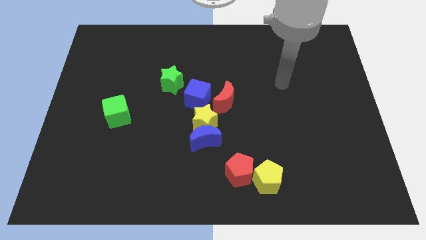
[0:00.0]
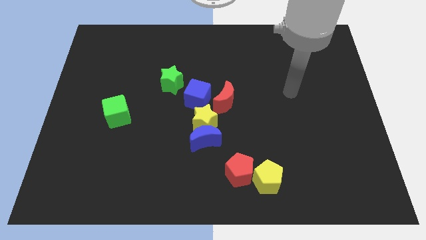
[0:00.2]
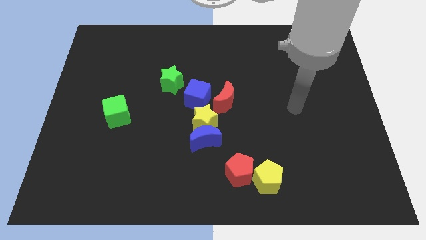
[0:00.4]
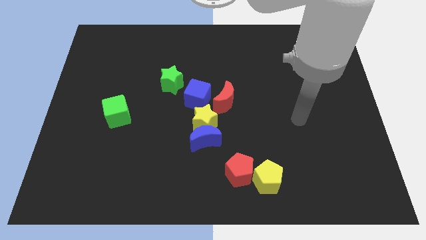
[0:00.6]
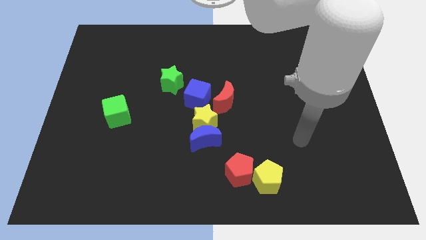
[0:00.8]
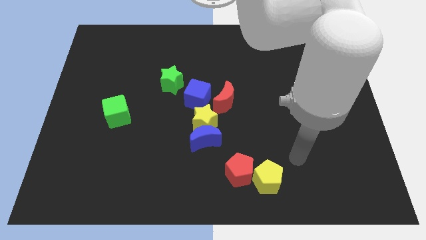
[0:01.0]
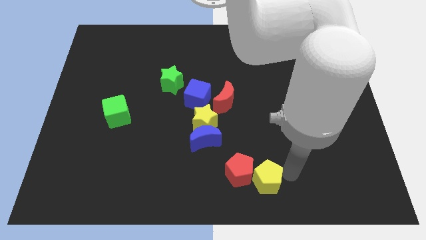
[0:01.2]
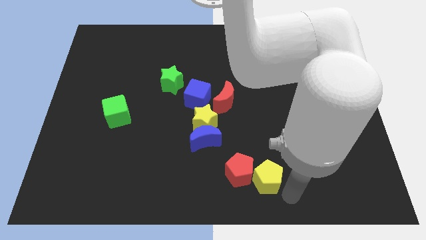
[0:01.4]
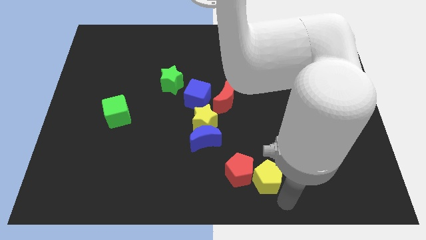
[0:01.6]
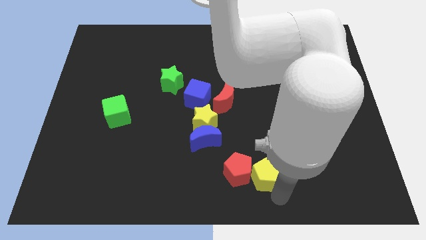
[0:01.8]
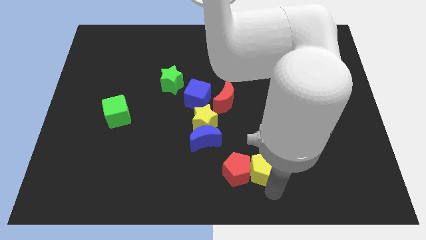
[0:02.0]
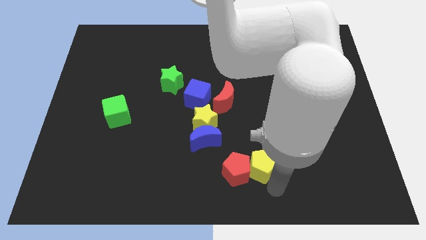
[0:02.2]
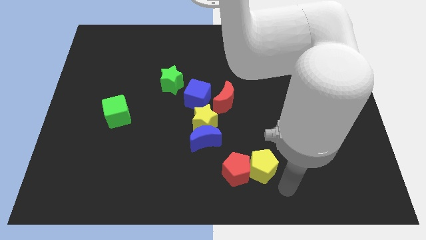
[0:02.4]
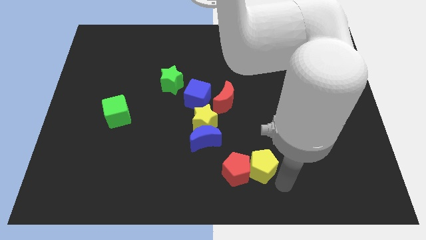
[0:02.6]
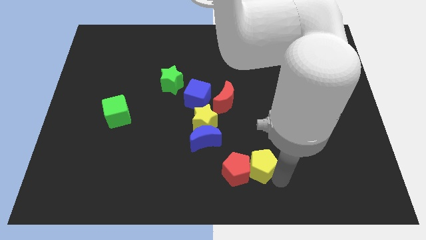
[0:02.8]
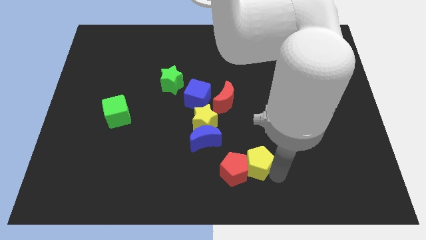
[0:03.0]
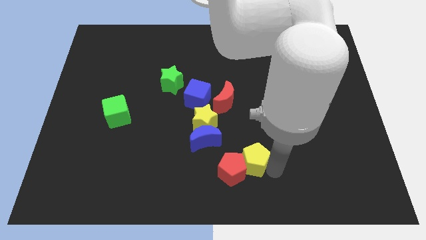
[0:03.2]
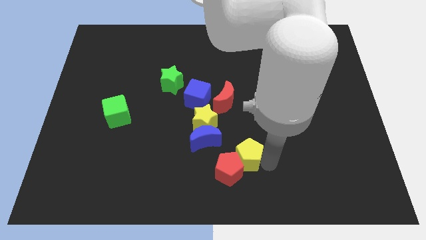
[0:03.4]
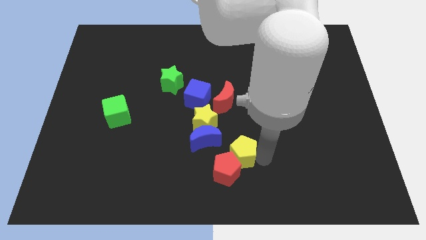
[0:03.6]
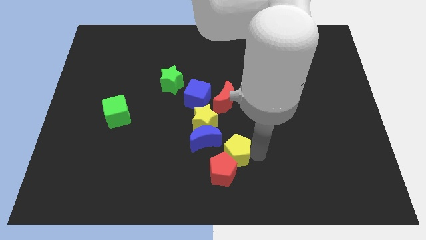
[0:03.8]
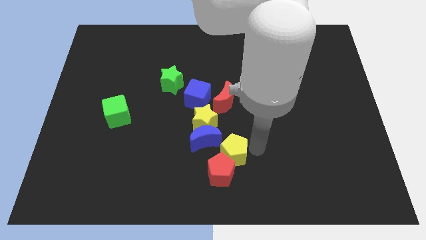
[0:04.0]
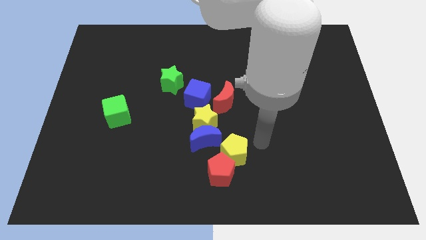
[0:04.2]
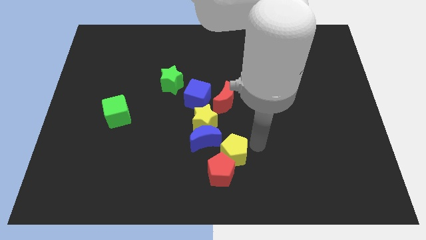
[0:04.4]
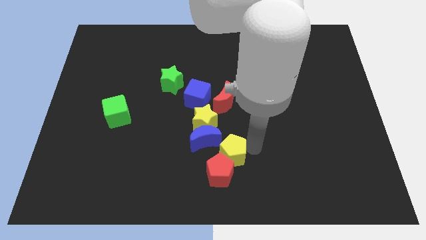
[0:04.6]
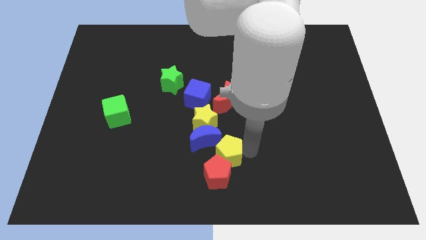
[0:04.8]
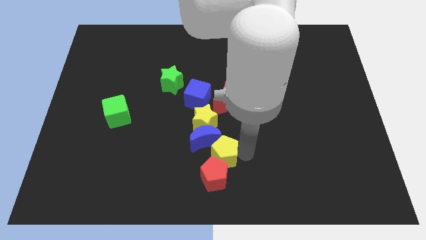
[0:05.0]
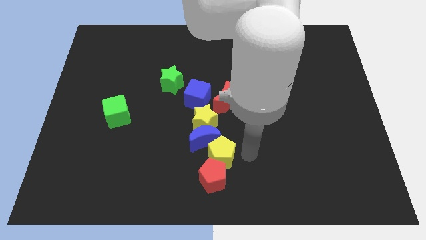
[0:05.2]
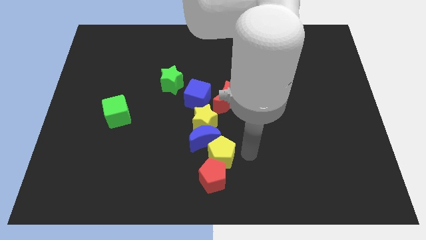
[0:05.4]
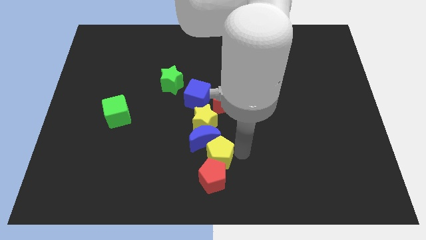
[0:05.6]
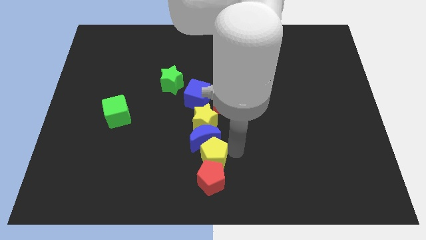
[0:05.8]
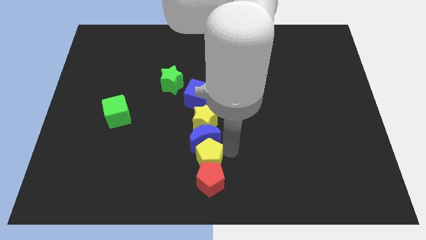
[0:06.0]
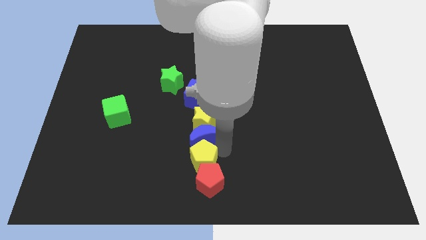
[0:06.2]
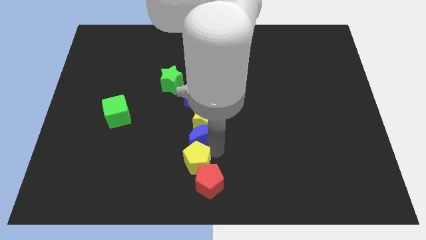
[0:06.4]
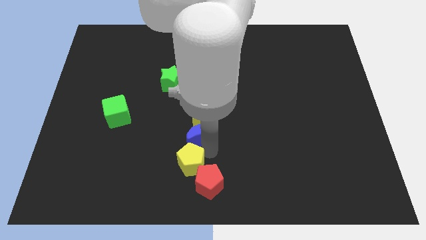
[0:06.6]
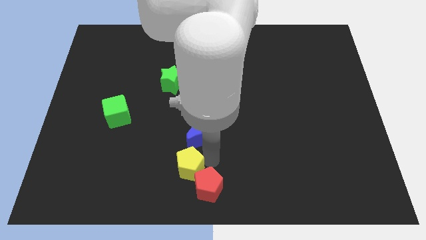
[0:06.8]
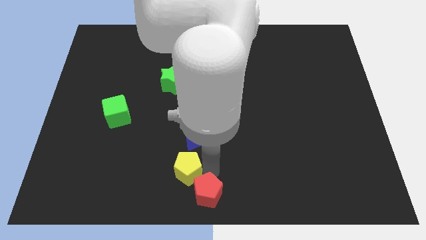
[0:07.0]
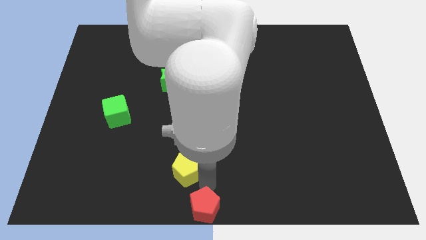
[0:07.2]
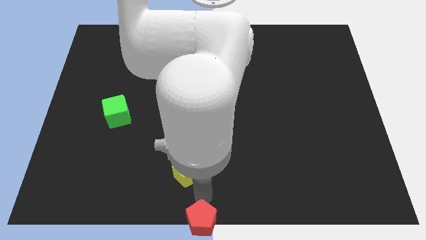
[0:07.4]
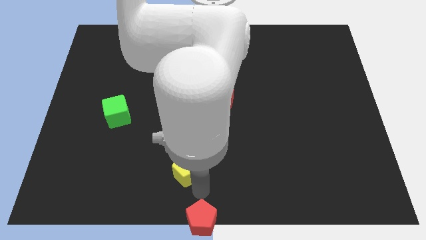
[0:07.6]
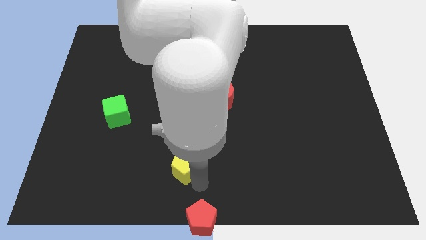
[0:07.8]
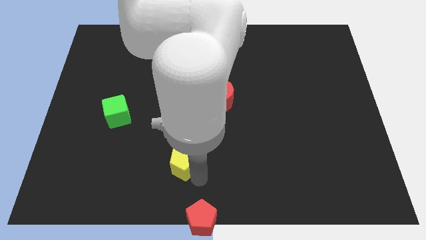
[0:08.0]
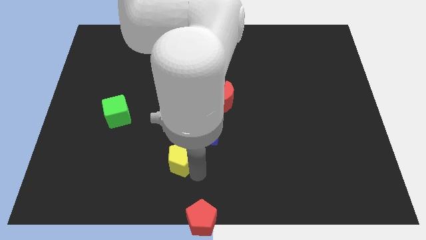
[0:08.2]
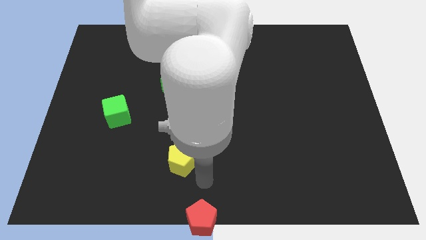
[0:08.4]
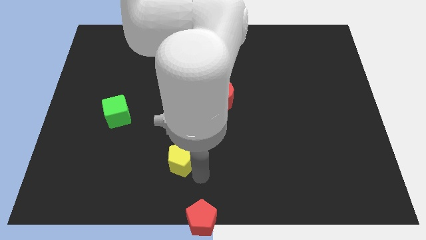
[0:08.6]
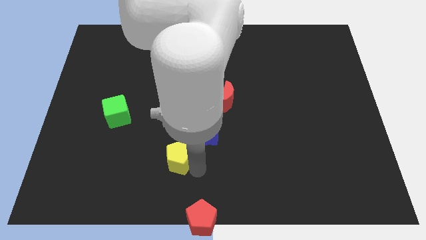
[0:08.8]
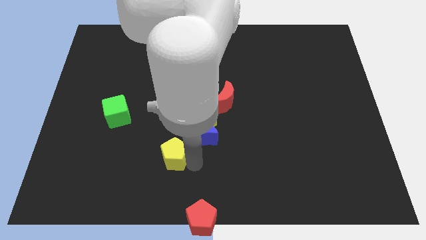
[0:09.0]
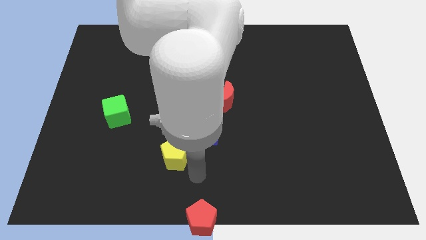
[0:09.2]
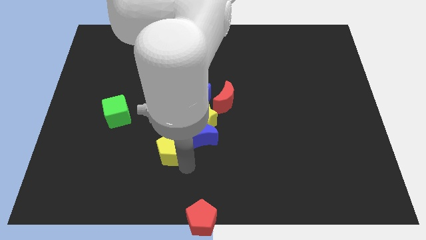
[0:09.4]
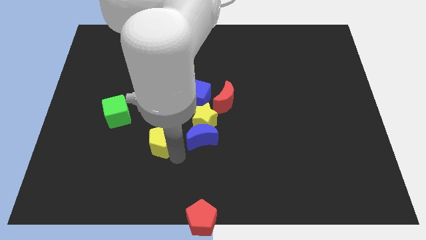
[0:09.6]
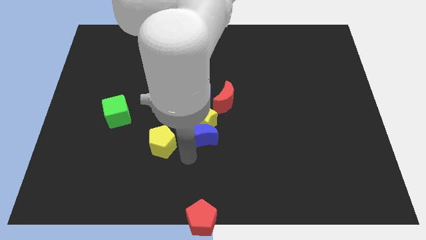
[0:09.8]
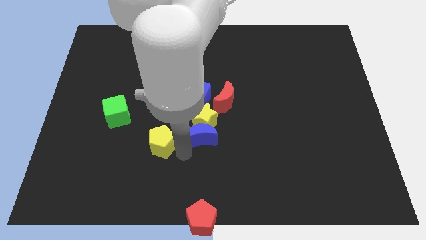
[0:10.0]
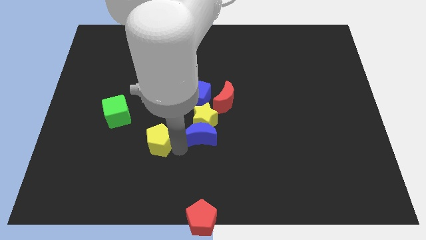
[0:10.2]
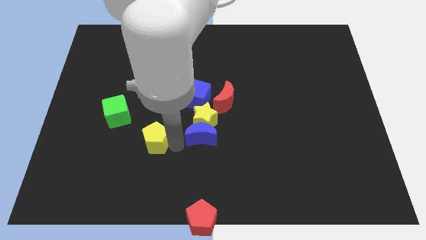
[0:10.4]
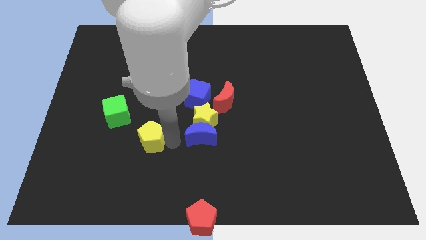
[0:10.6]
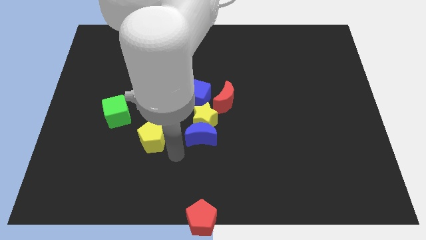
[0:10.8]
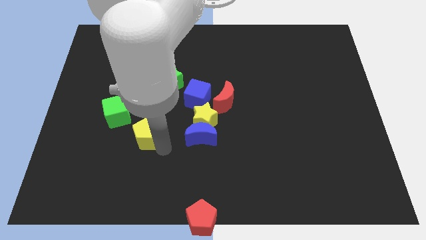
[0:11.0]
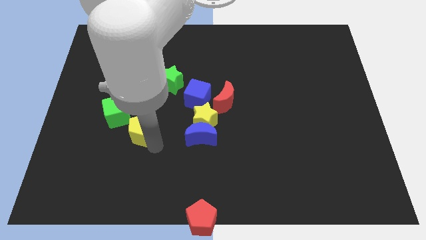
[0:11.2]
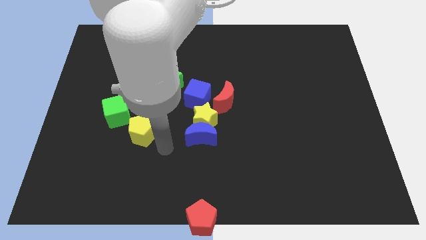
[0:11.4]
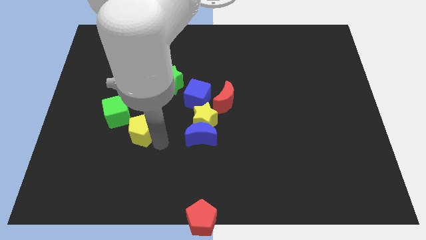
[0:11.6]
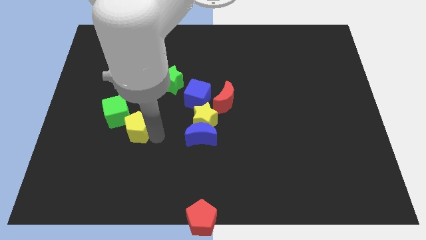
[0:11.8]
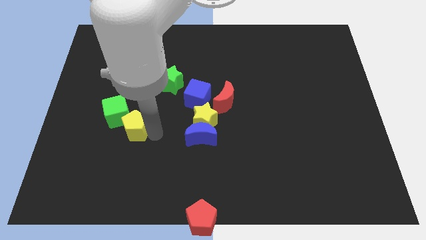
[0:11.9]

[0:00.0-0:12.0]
put the yellow pentagon towards the green cube

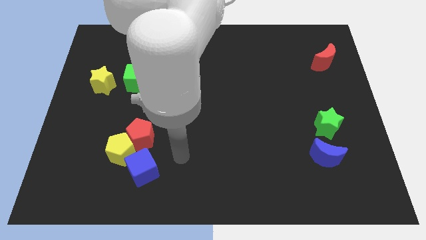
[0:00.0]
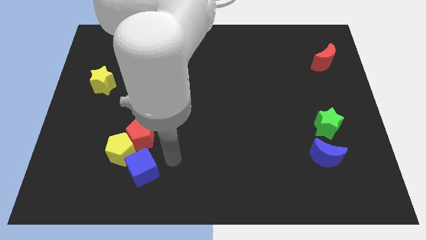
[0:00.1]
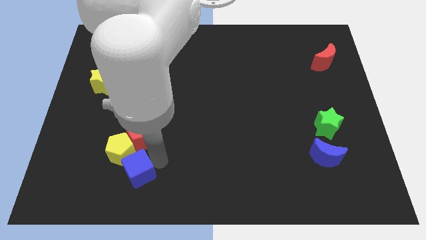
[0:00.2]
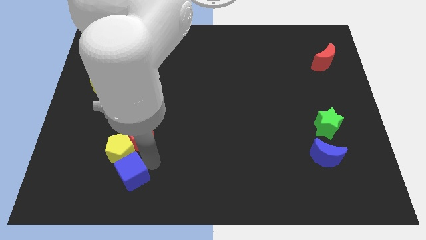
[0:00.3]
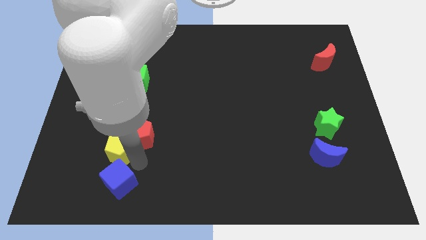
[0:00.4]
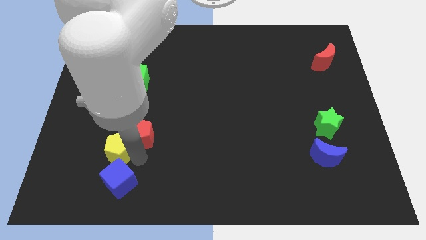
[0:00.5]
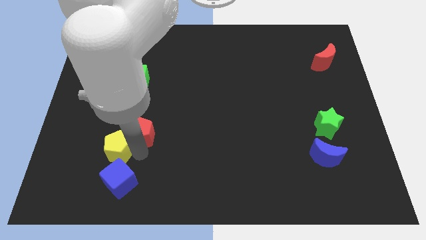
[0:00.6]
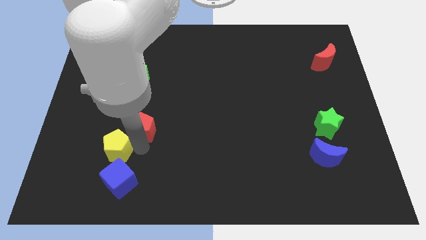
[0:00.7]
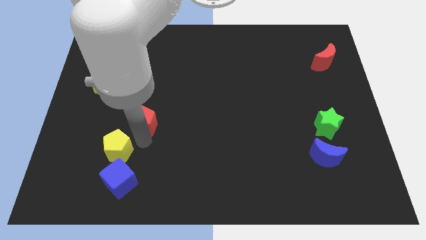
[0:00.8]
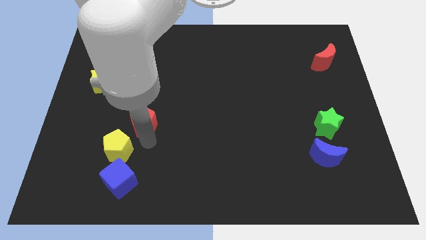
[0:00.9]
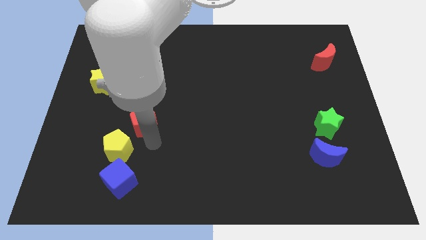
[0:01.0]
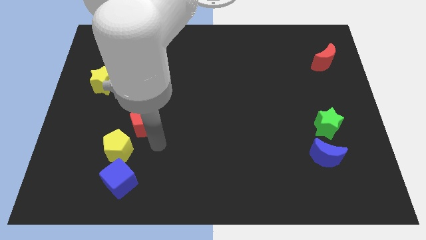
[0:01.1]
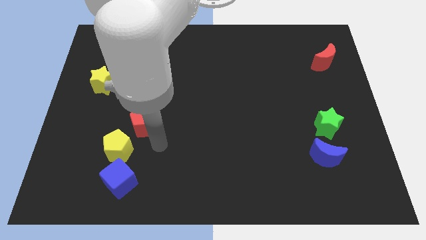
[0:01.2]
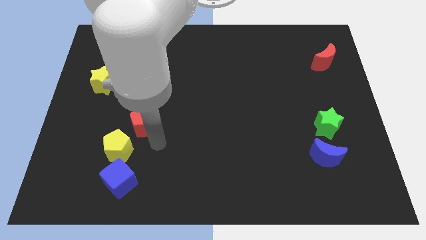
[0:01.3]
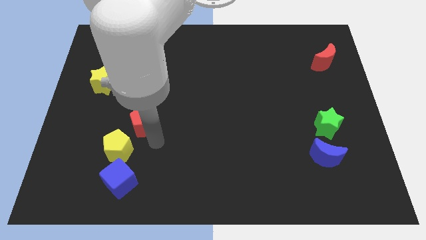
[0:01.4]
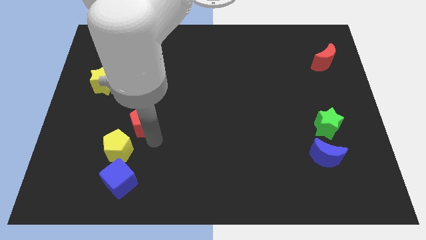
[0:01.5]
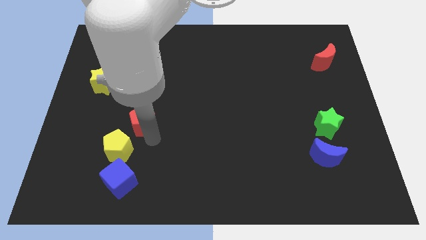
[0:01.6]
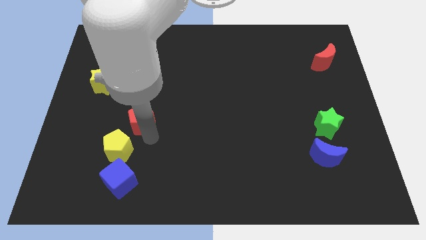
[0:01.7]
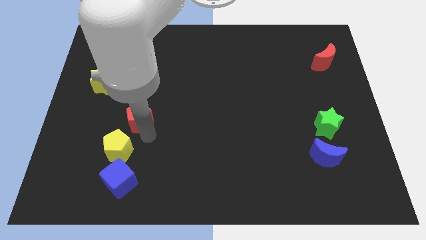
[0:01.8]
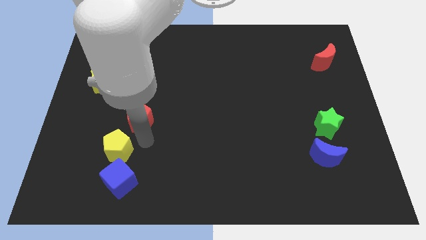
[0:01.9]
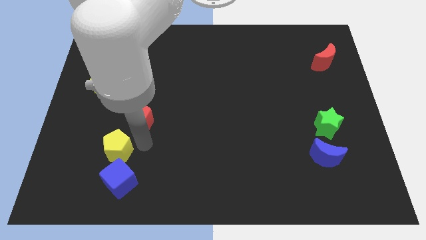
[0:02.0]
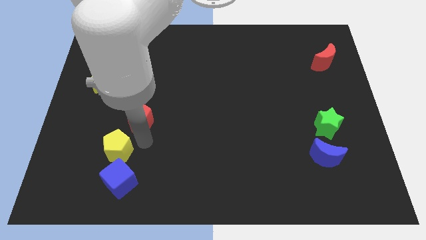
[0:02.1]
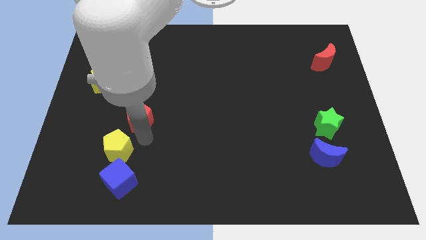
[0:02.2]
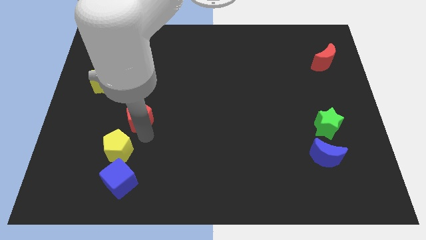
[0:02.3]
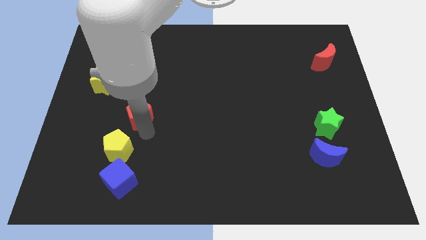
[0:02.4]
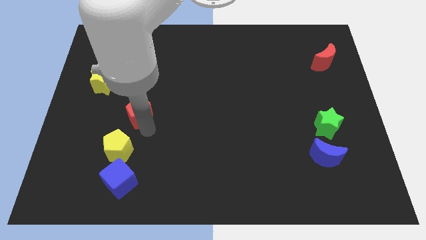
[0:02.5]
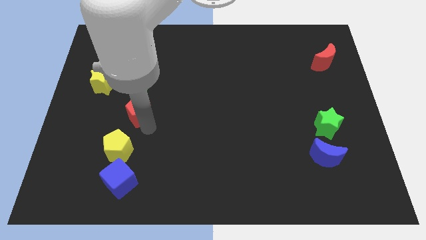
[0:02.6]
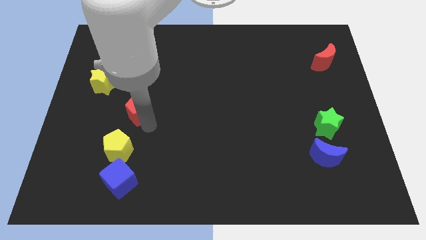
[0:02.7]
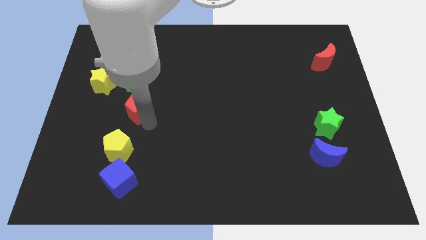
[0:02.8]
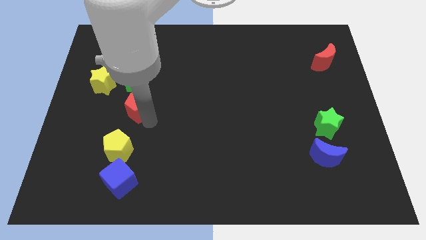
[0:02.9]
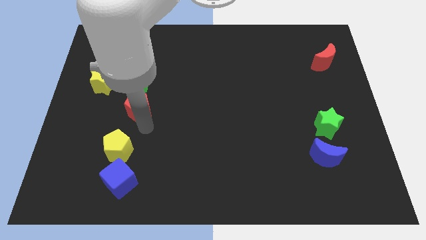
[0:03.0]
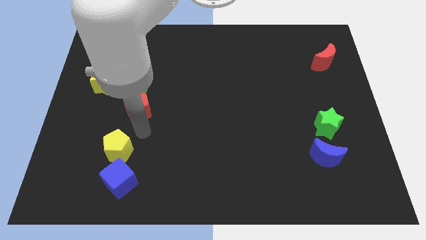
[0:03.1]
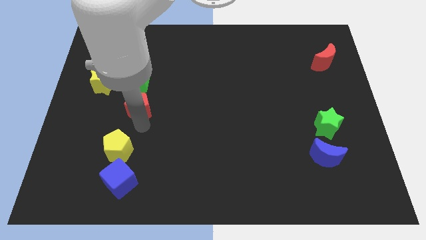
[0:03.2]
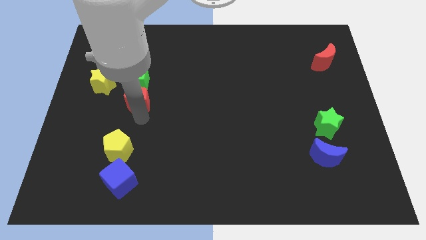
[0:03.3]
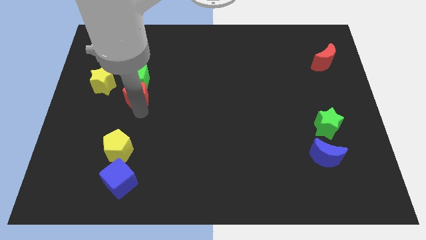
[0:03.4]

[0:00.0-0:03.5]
slide the red pentagon close to the green cube
